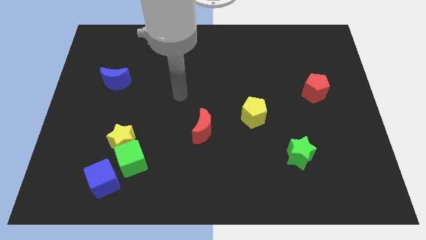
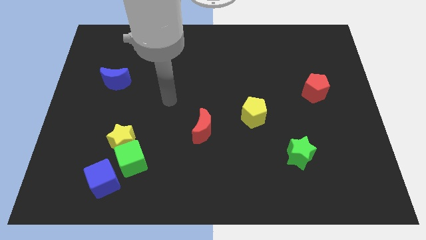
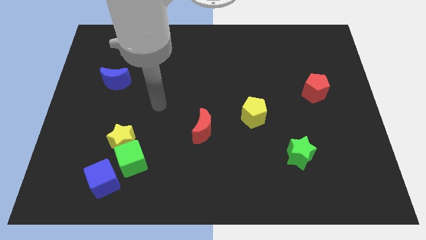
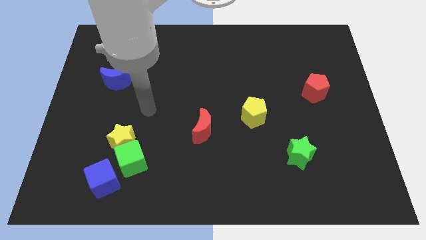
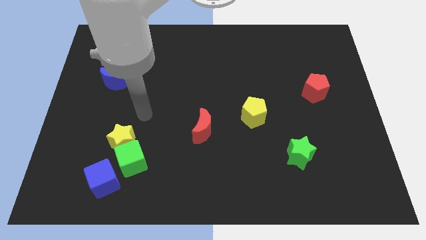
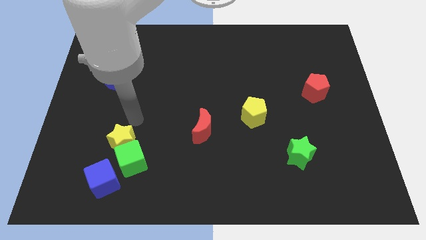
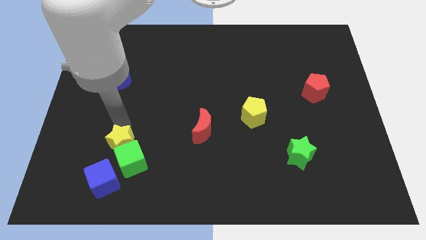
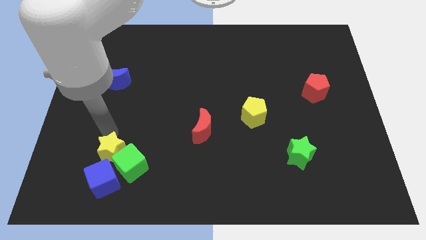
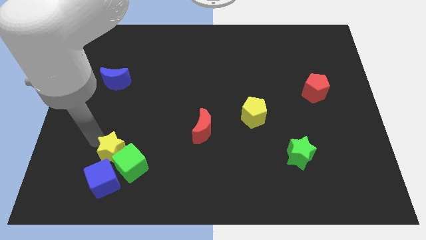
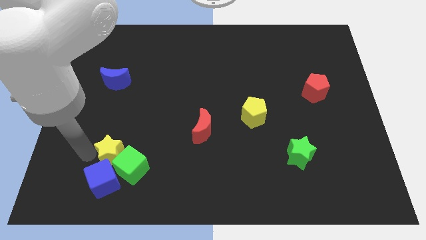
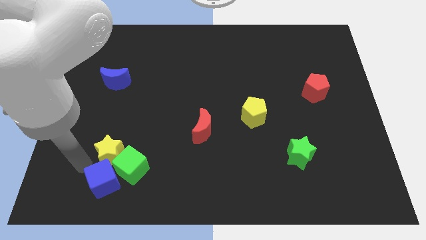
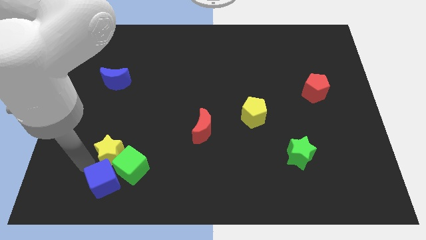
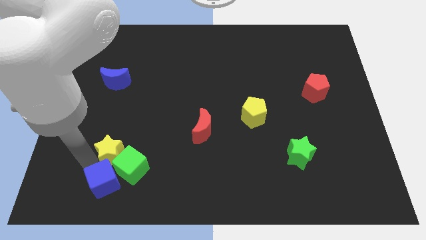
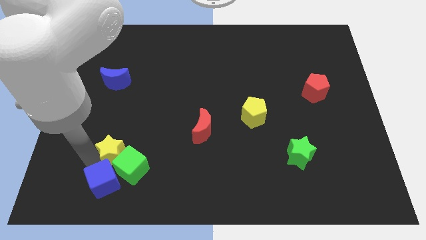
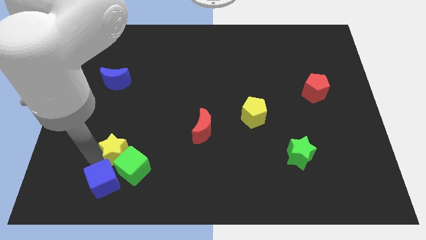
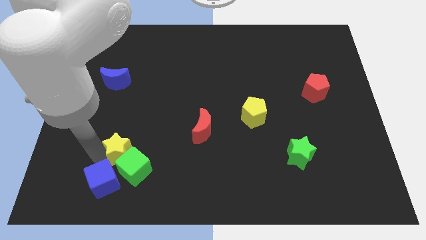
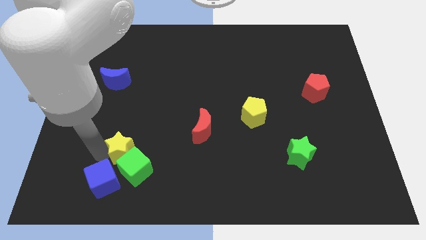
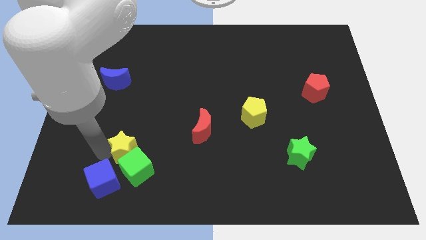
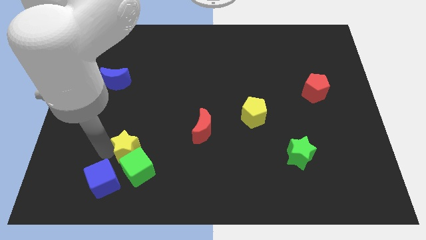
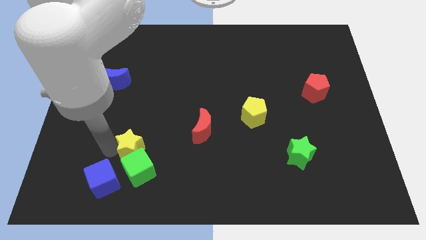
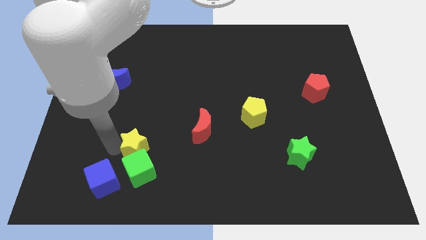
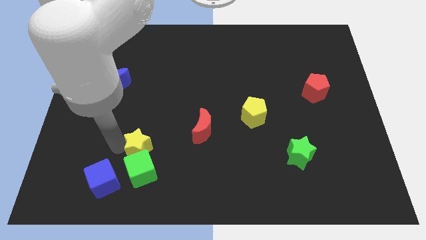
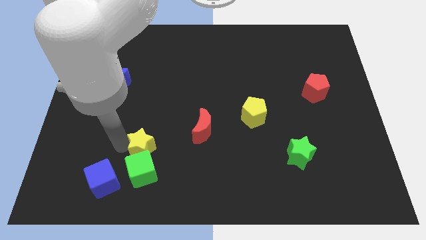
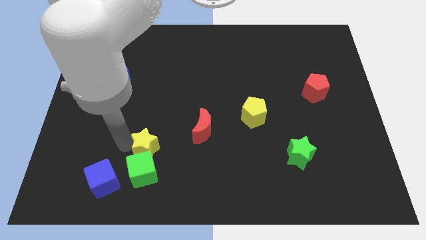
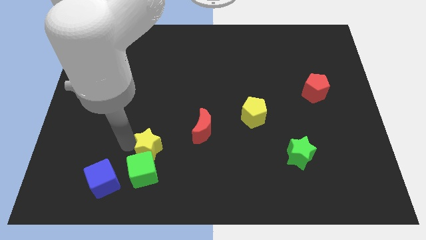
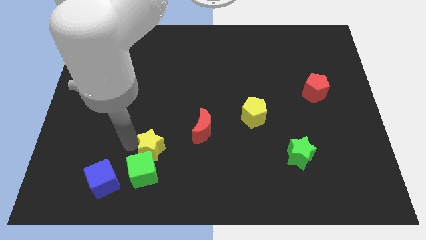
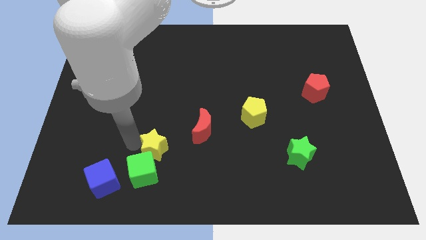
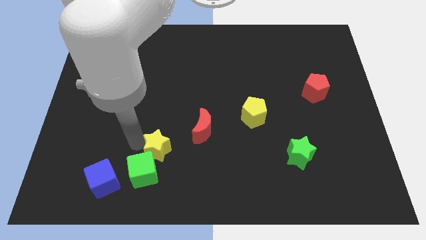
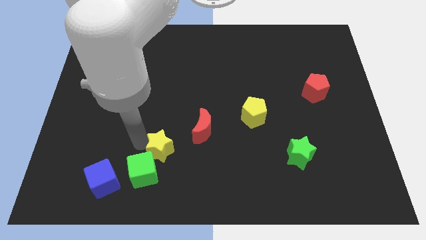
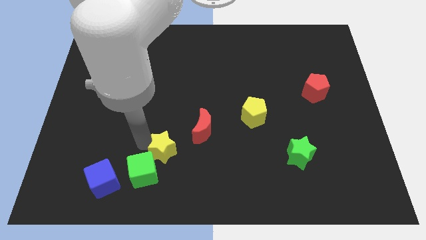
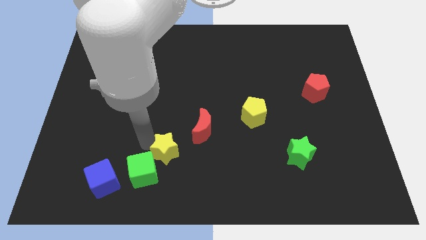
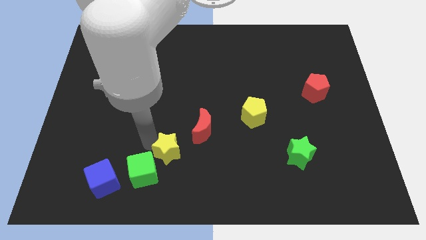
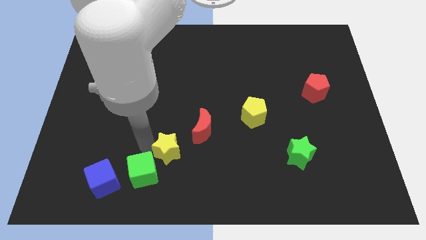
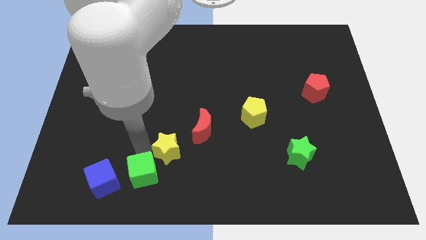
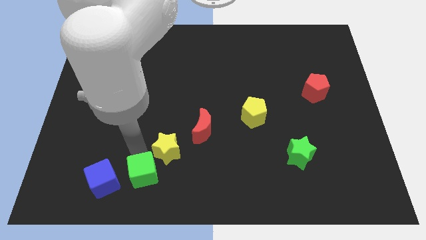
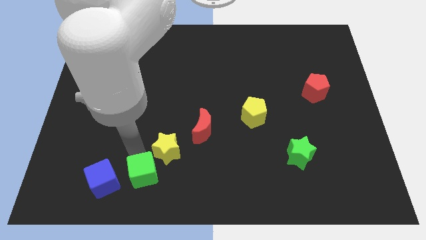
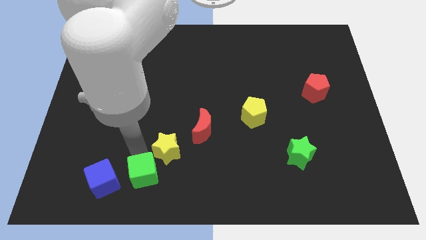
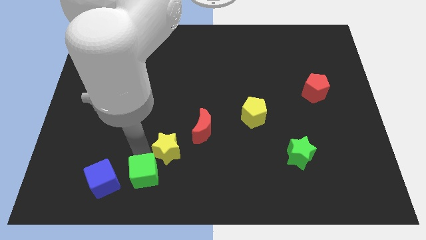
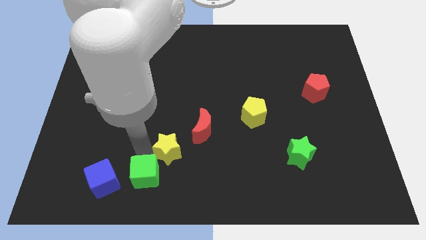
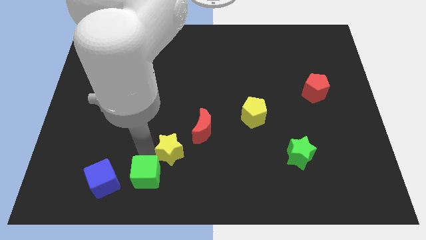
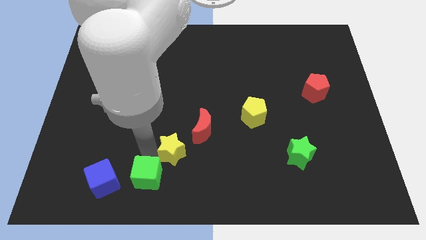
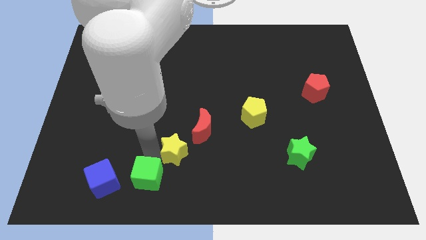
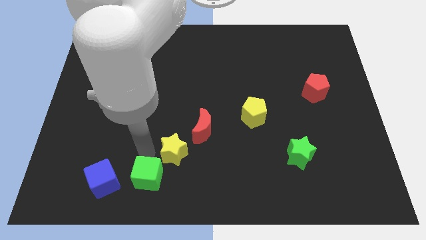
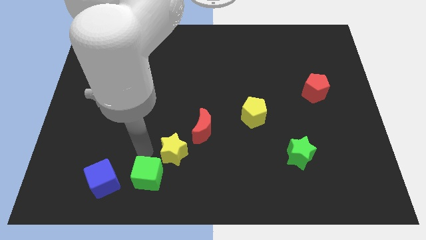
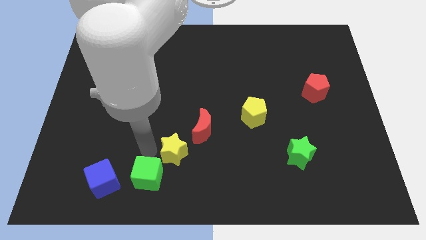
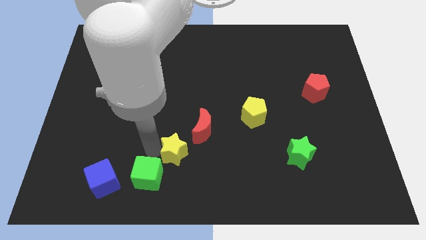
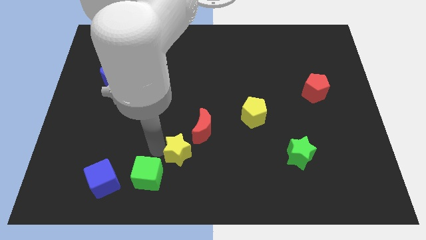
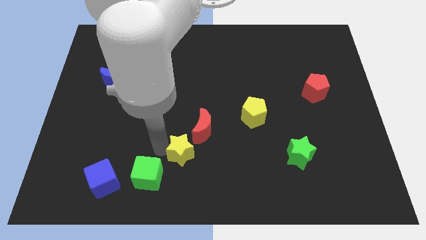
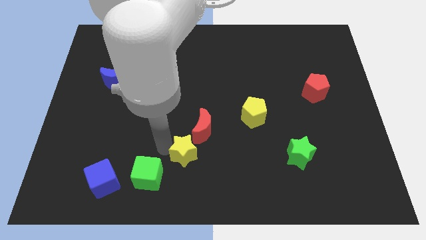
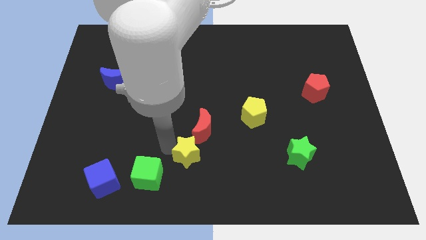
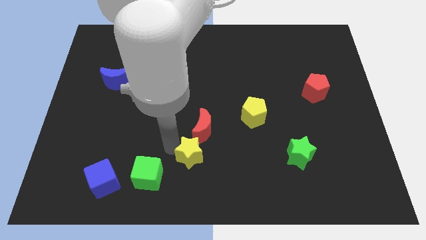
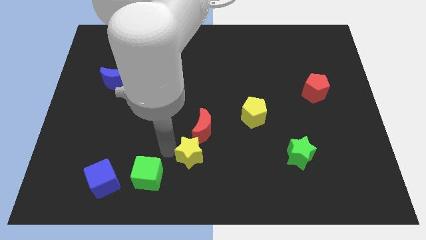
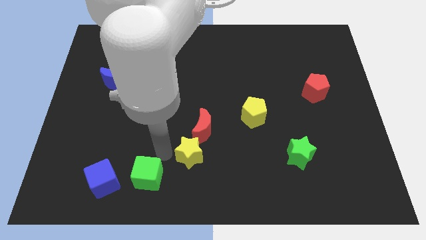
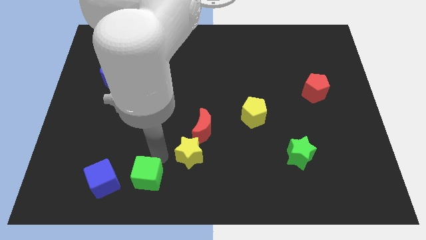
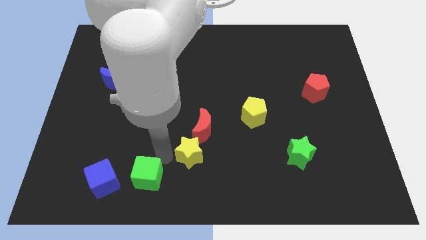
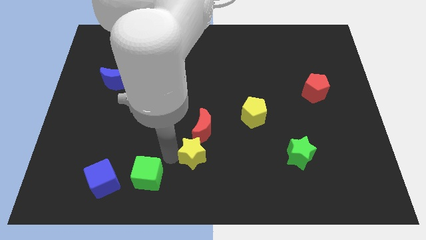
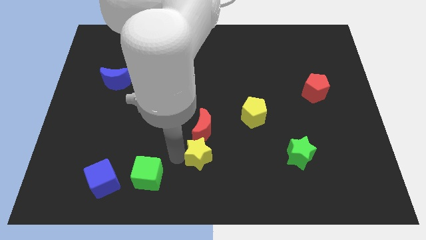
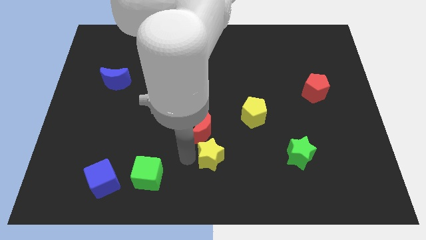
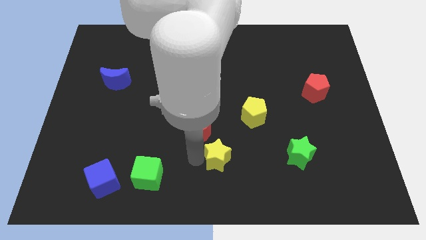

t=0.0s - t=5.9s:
push the yellow star to the right

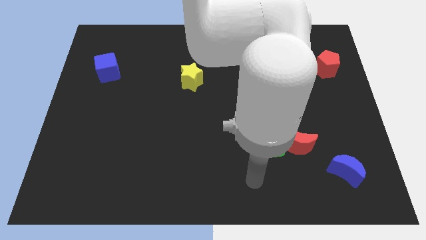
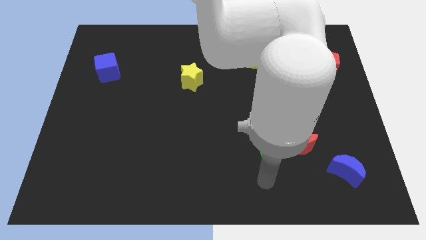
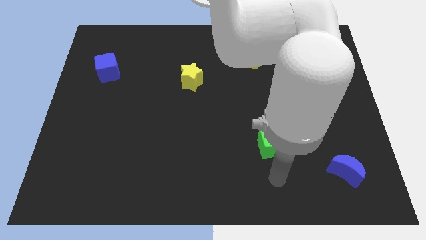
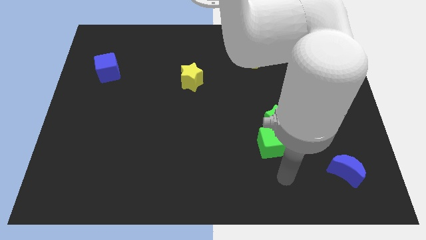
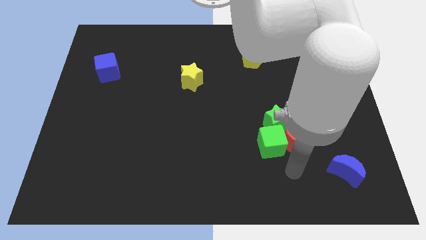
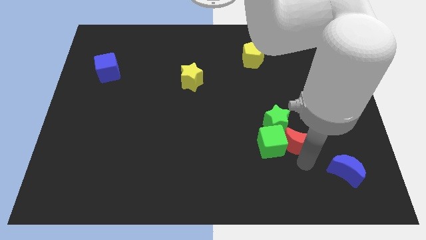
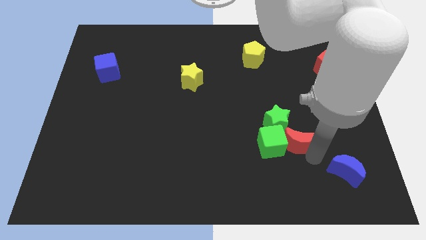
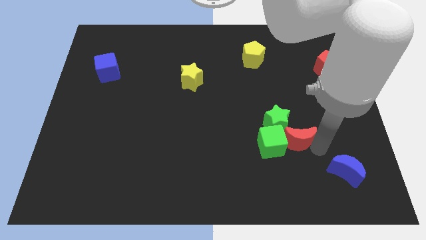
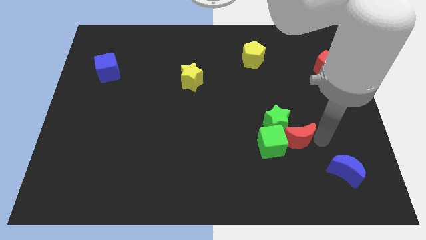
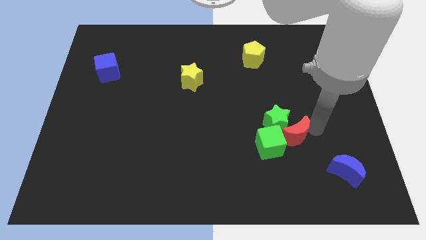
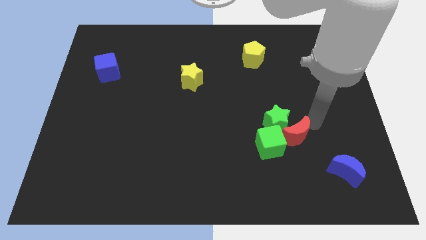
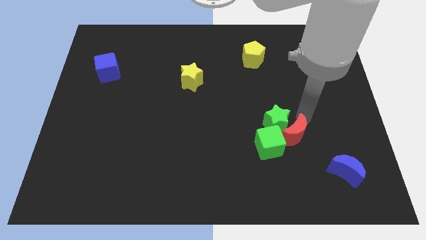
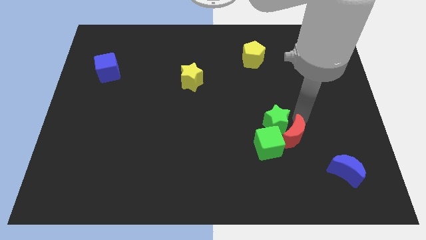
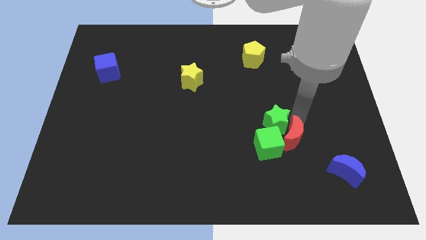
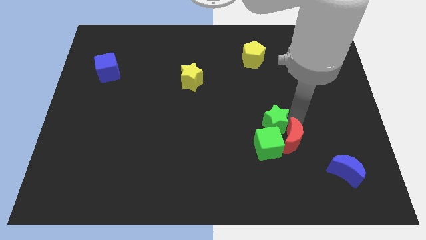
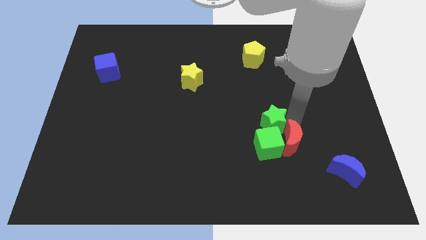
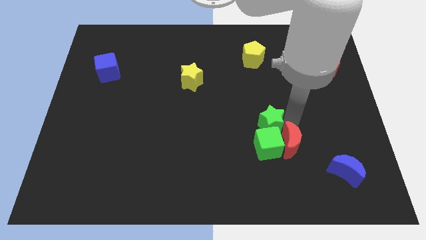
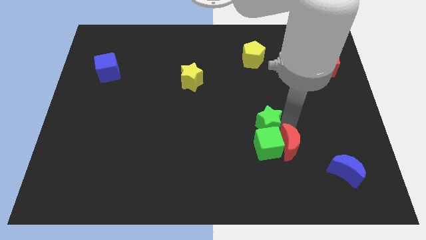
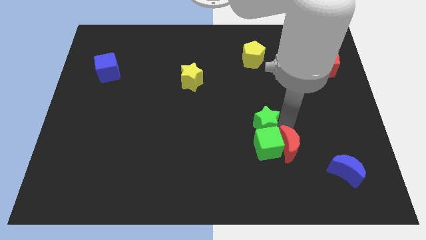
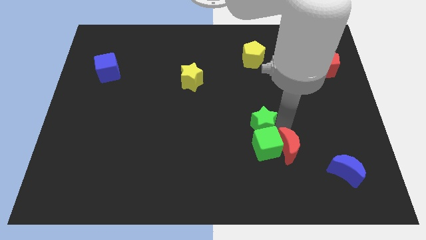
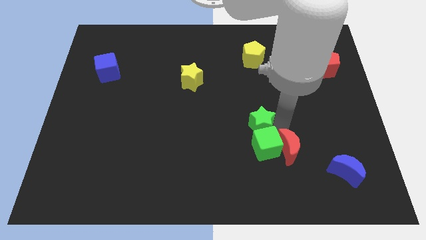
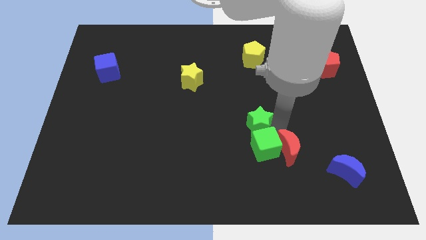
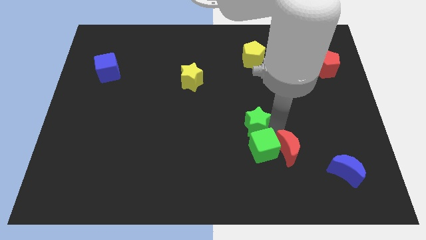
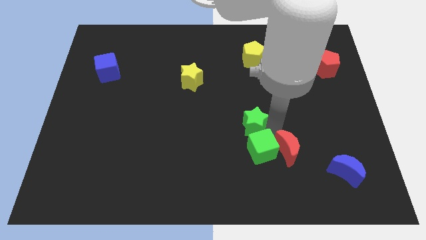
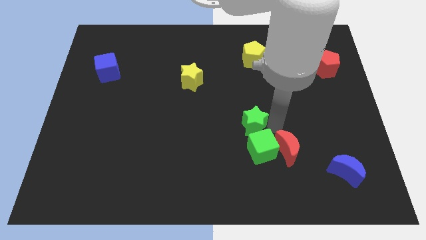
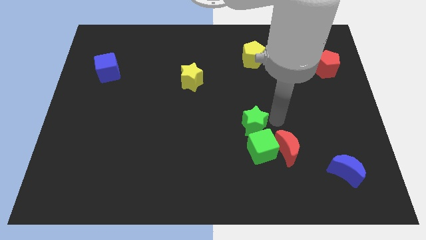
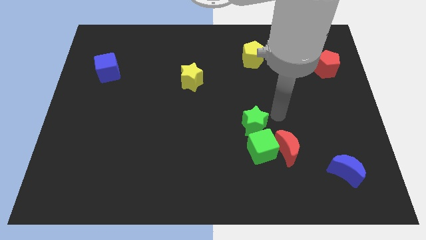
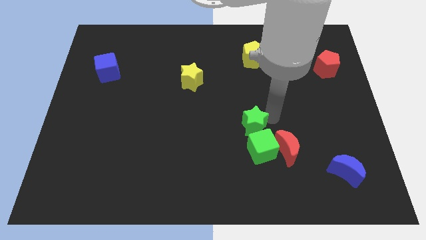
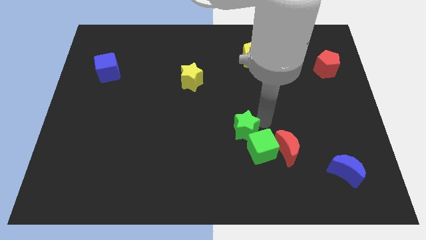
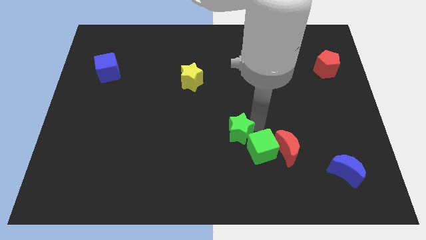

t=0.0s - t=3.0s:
slide the green star downwards and then to the left slightly
